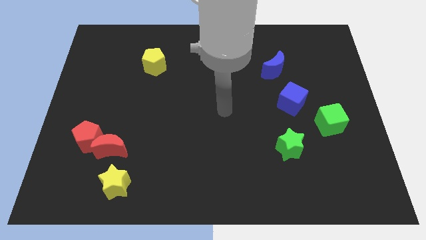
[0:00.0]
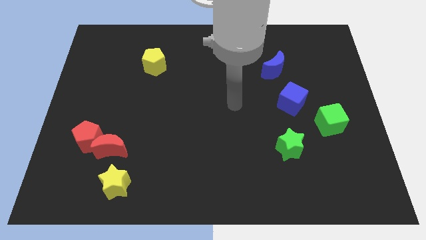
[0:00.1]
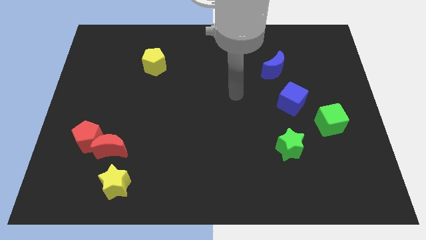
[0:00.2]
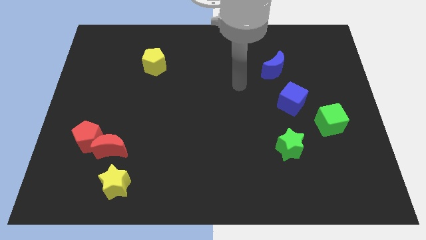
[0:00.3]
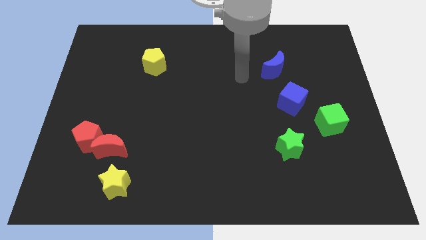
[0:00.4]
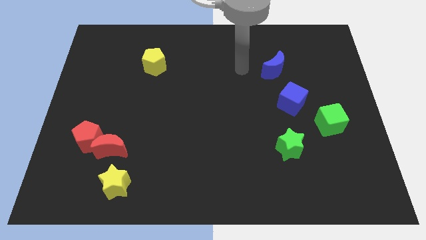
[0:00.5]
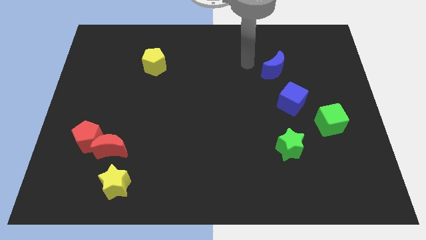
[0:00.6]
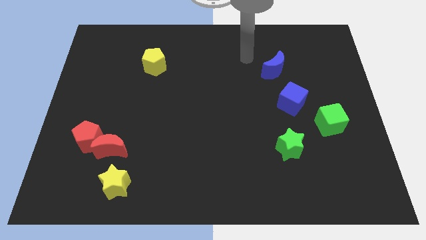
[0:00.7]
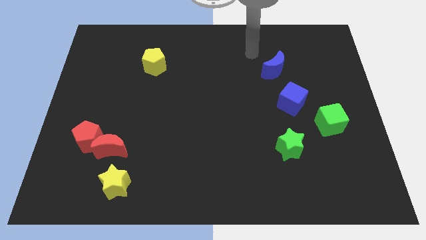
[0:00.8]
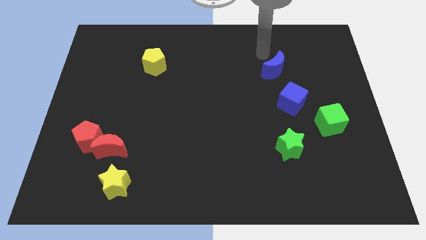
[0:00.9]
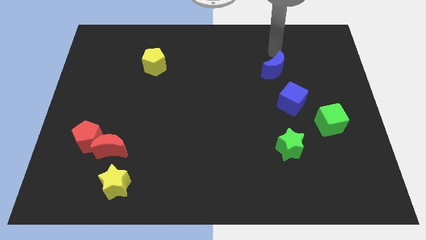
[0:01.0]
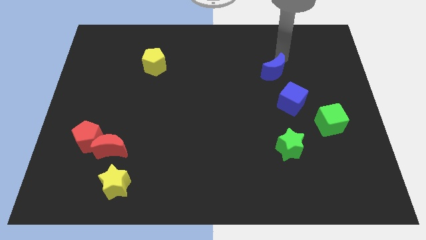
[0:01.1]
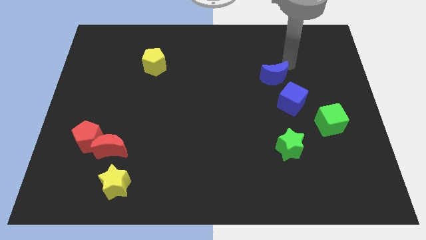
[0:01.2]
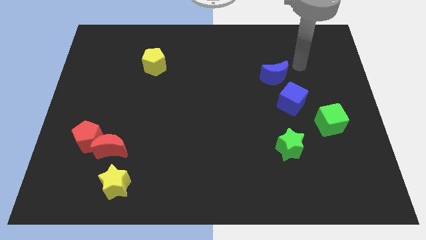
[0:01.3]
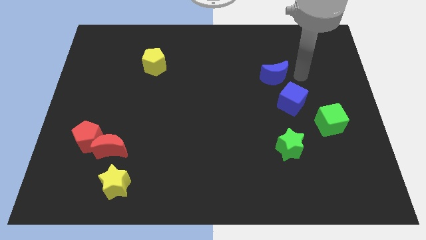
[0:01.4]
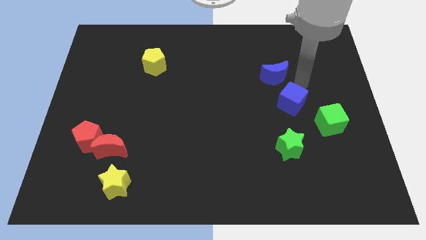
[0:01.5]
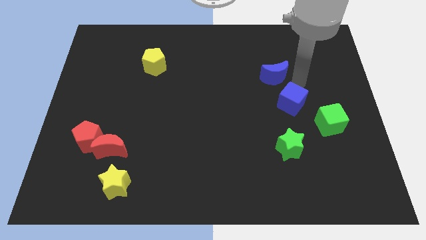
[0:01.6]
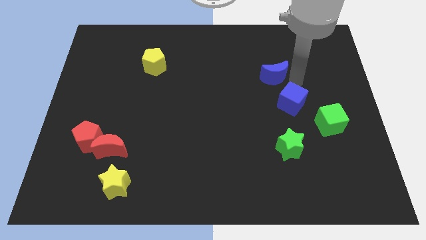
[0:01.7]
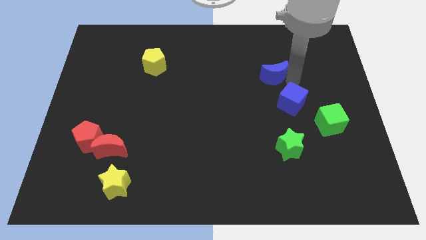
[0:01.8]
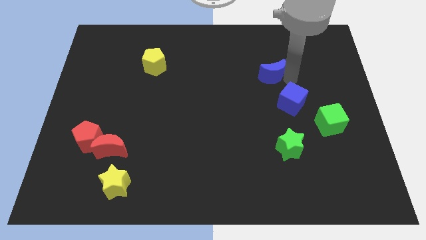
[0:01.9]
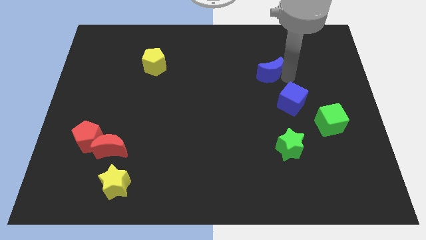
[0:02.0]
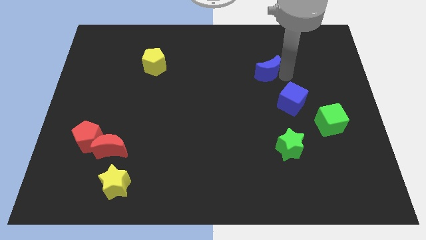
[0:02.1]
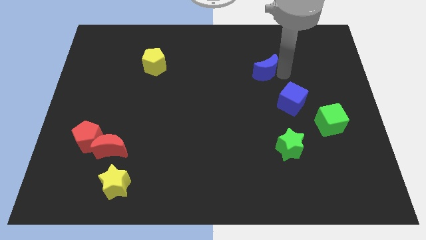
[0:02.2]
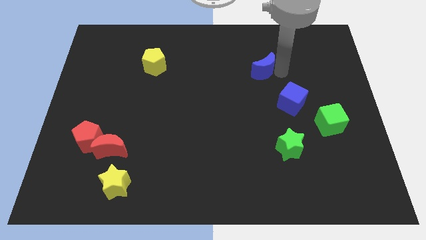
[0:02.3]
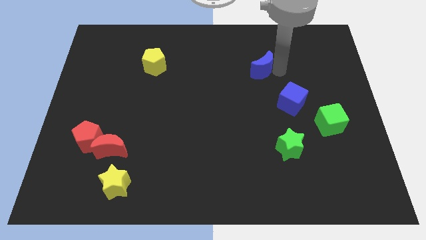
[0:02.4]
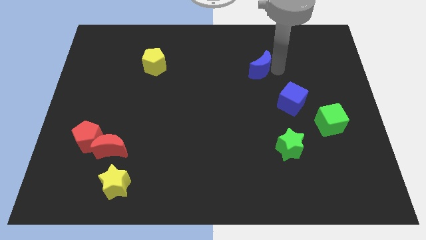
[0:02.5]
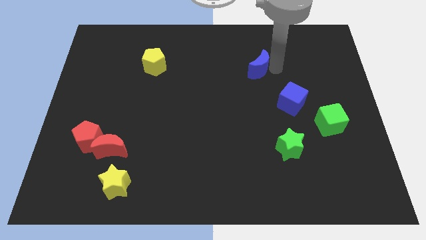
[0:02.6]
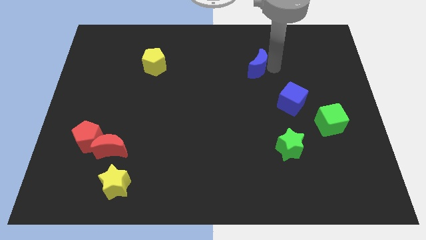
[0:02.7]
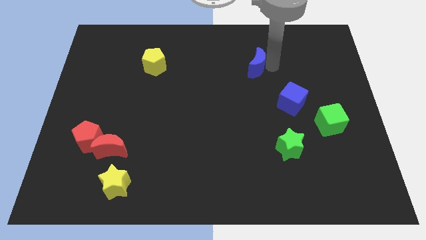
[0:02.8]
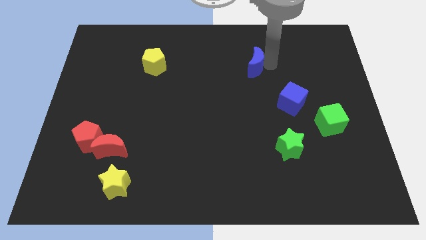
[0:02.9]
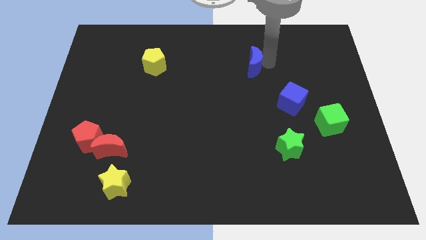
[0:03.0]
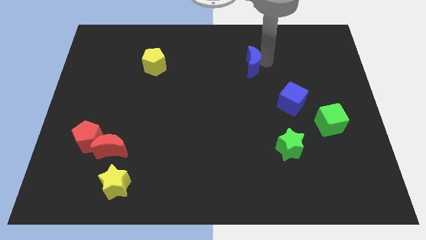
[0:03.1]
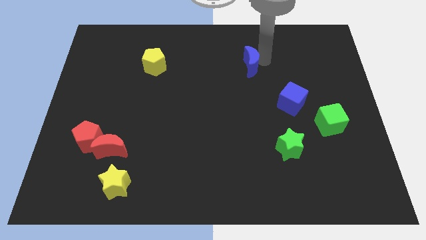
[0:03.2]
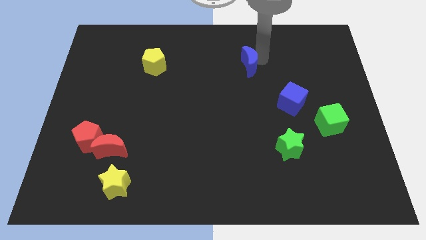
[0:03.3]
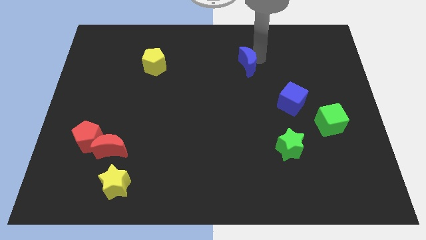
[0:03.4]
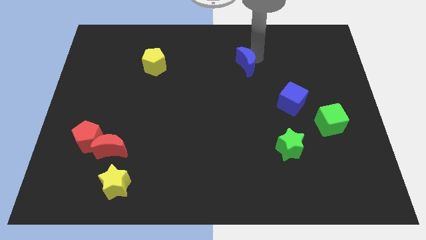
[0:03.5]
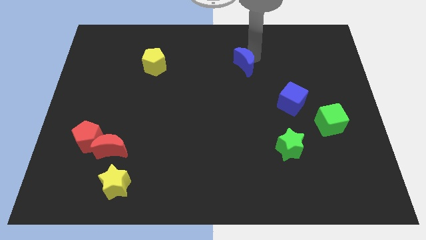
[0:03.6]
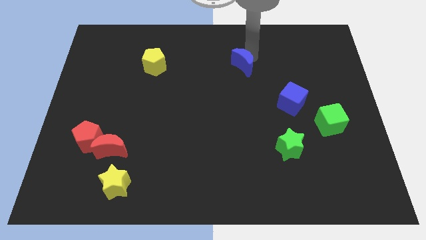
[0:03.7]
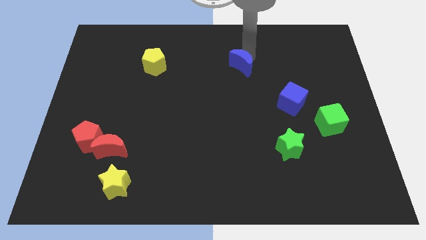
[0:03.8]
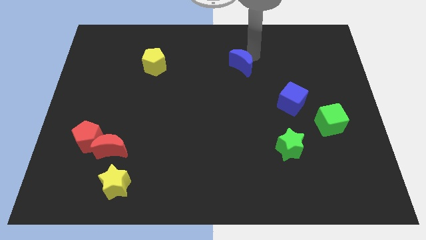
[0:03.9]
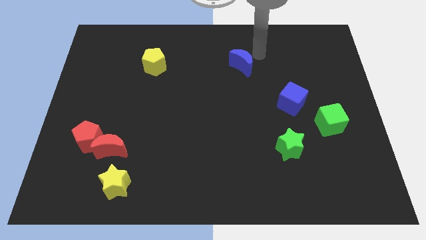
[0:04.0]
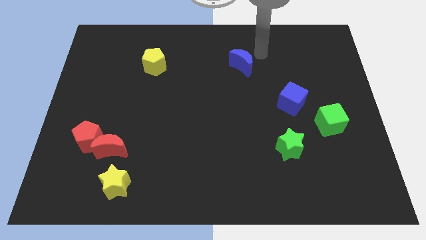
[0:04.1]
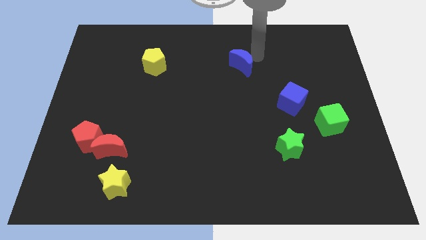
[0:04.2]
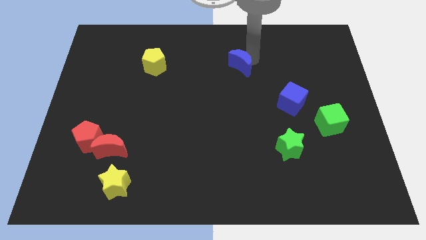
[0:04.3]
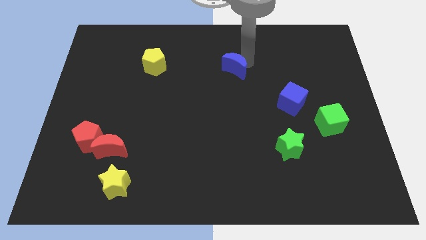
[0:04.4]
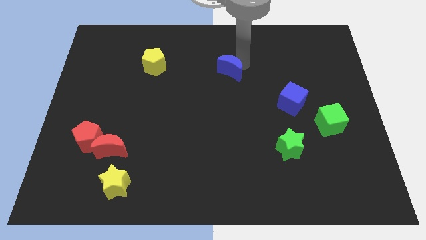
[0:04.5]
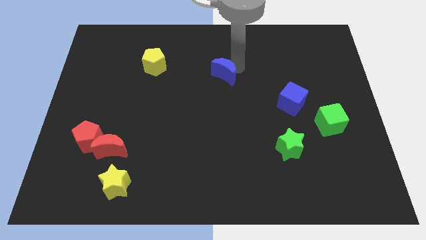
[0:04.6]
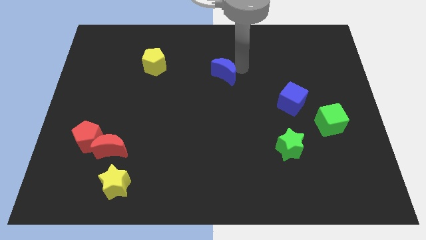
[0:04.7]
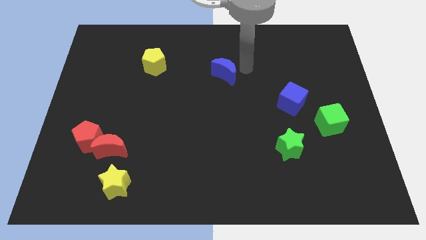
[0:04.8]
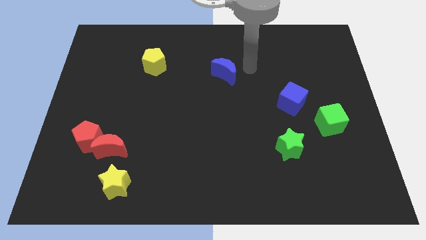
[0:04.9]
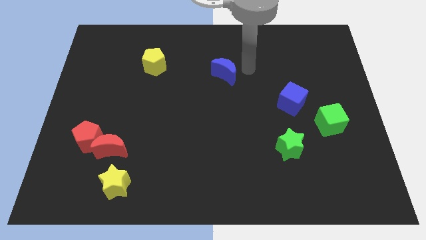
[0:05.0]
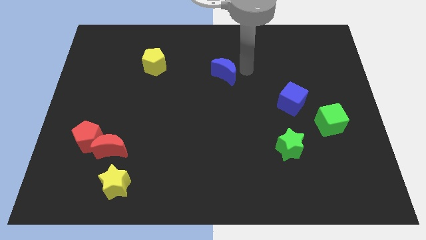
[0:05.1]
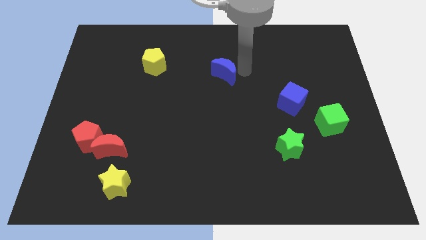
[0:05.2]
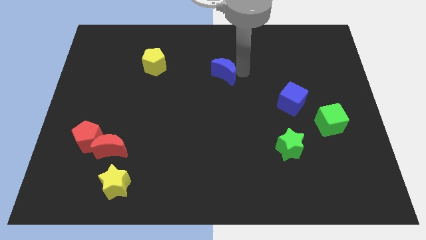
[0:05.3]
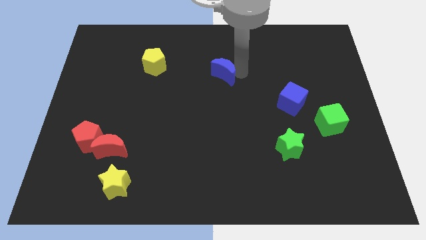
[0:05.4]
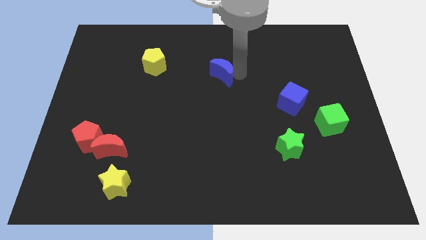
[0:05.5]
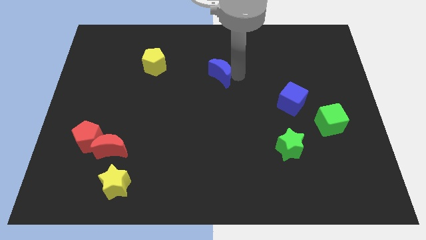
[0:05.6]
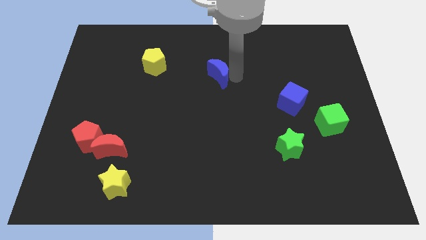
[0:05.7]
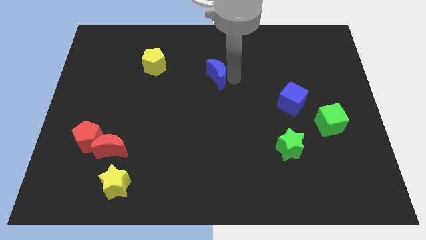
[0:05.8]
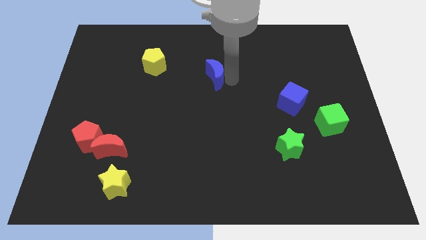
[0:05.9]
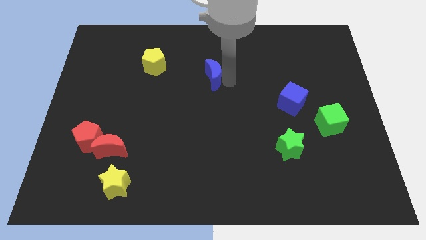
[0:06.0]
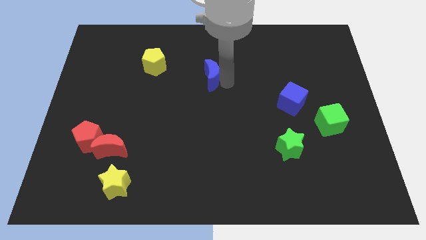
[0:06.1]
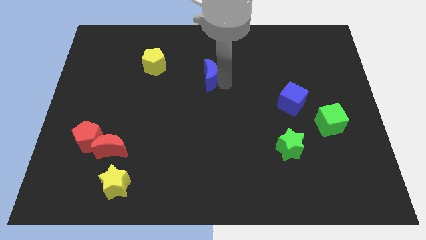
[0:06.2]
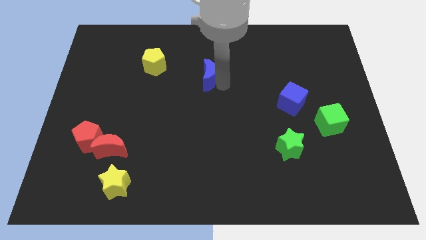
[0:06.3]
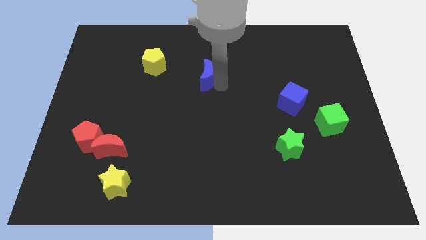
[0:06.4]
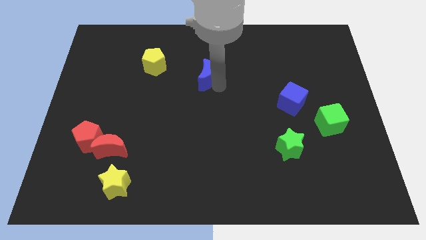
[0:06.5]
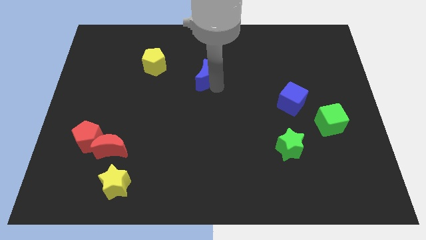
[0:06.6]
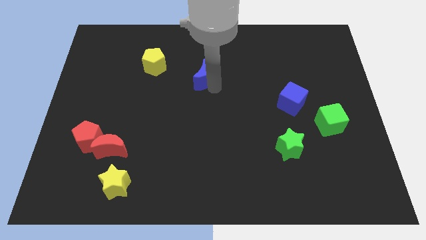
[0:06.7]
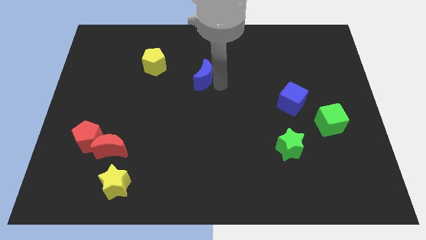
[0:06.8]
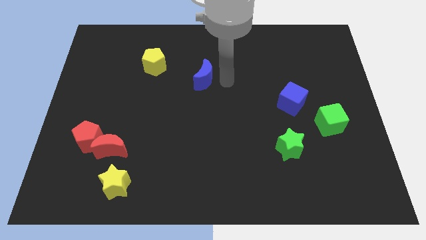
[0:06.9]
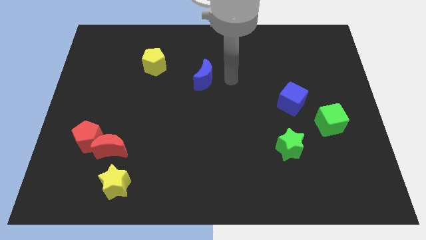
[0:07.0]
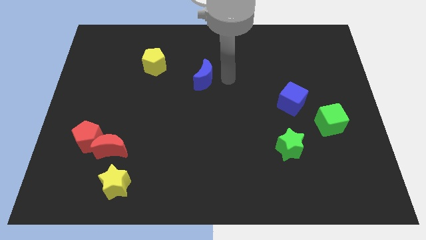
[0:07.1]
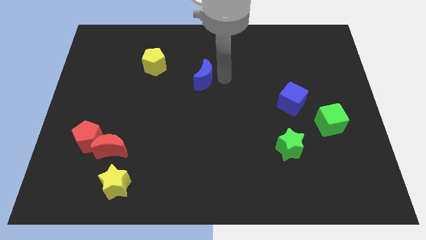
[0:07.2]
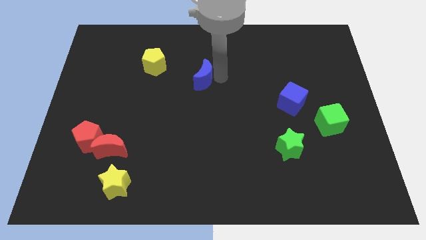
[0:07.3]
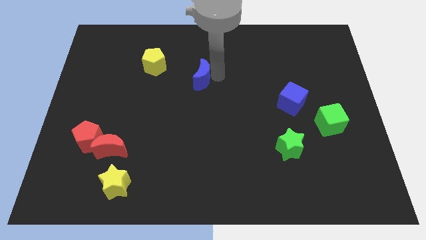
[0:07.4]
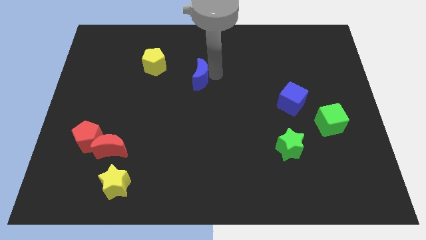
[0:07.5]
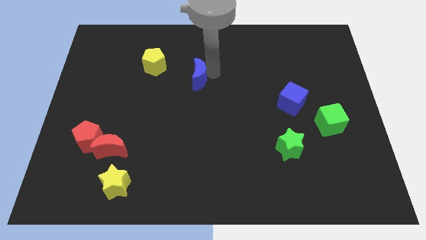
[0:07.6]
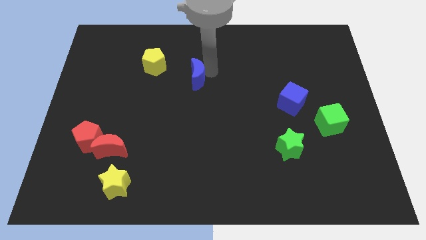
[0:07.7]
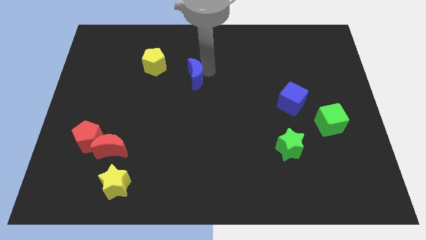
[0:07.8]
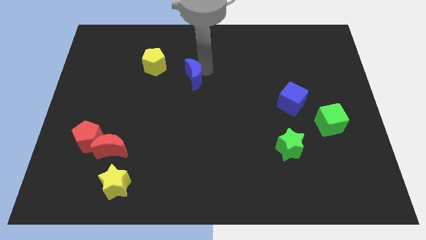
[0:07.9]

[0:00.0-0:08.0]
move the blue moon diagonally down and to the right of the yellow pentagon
